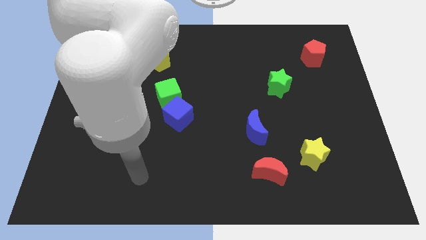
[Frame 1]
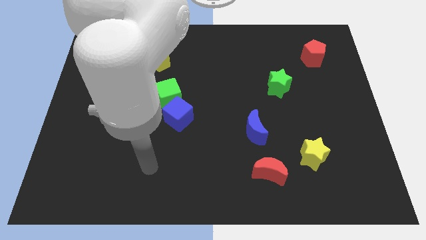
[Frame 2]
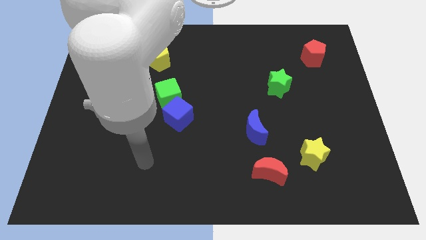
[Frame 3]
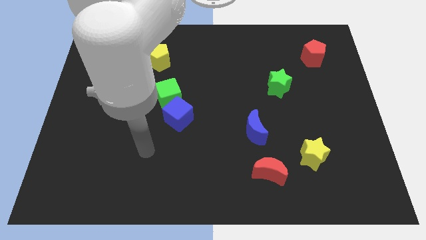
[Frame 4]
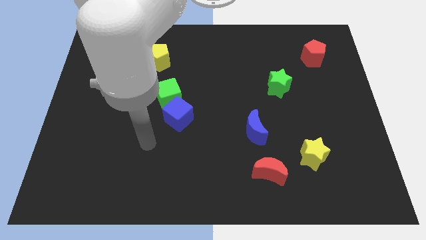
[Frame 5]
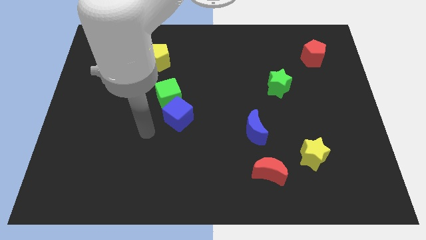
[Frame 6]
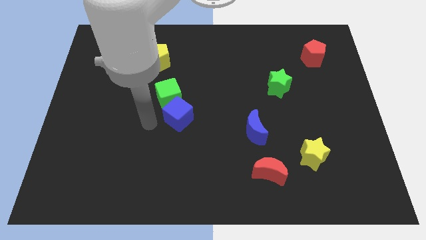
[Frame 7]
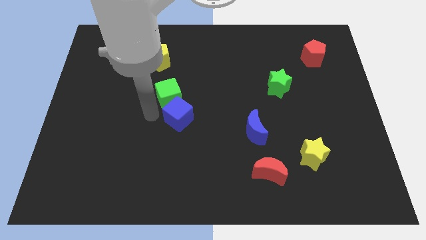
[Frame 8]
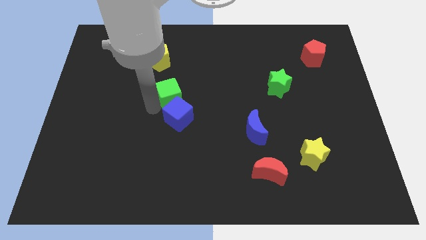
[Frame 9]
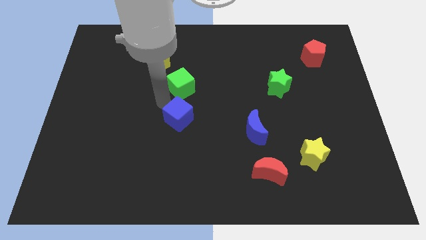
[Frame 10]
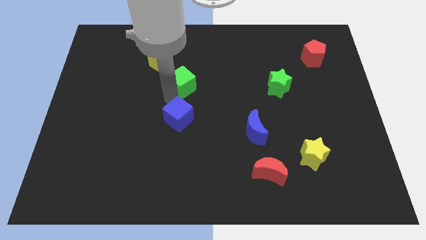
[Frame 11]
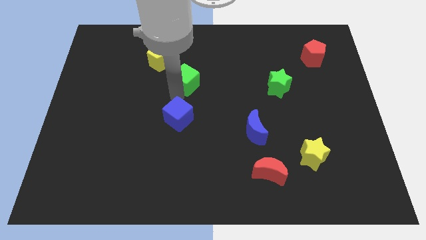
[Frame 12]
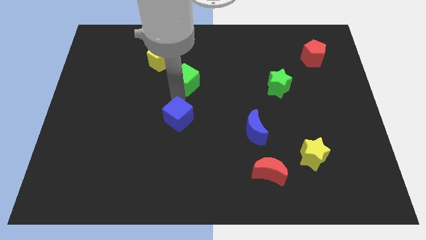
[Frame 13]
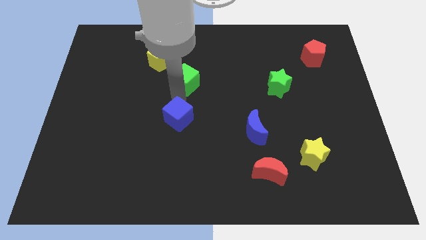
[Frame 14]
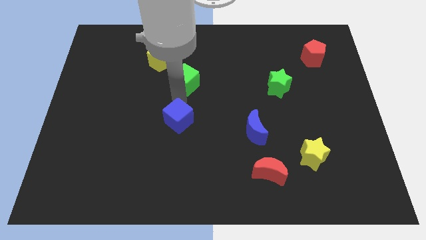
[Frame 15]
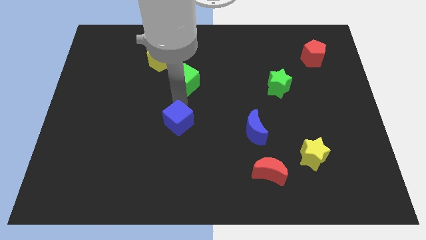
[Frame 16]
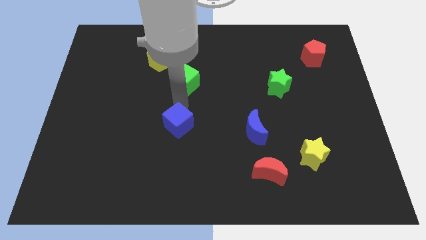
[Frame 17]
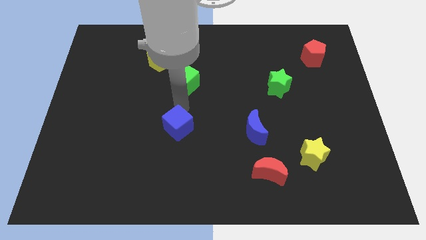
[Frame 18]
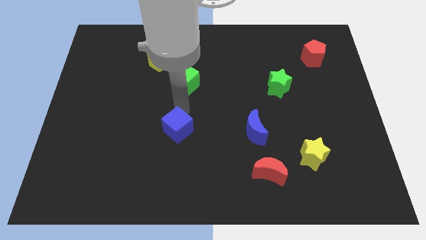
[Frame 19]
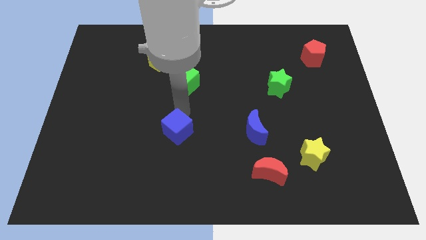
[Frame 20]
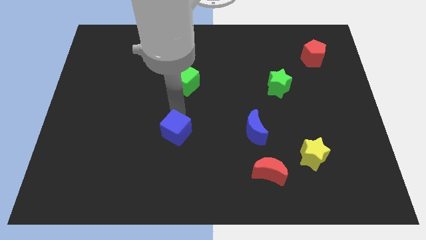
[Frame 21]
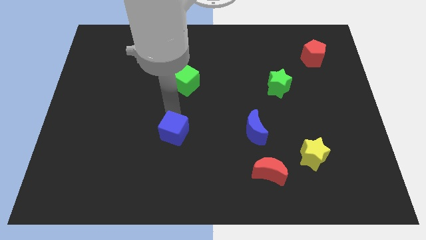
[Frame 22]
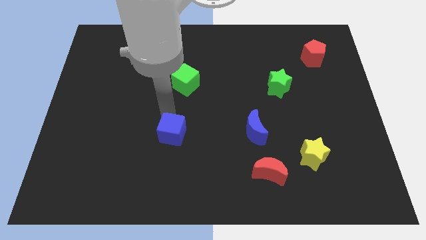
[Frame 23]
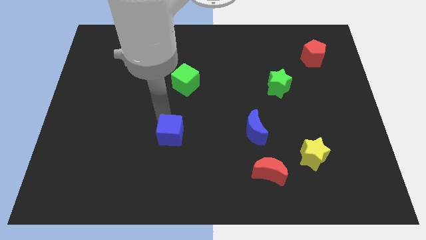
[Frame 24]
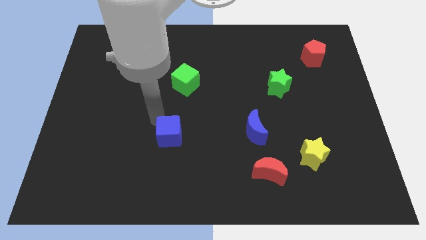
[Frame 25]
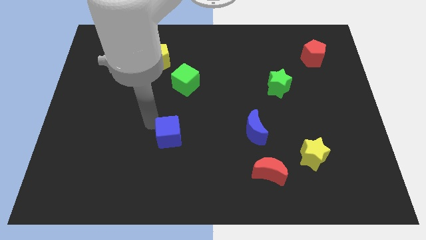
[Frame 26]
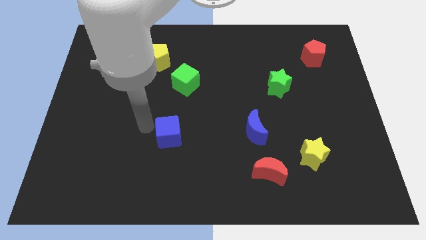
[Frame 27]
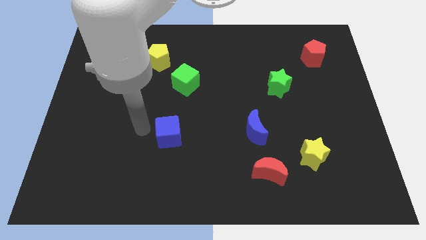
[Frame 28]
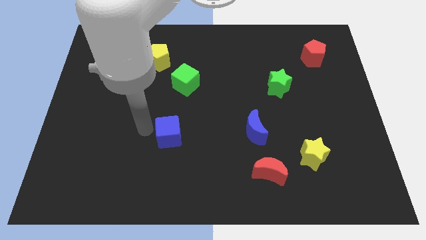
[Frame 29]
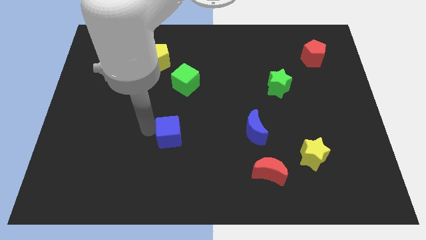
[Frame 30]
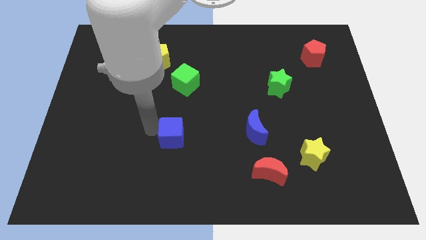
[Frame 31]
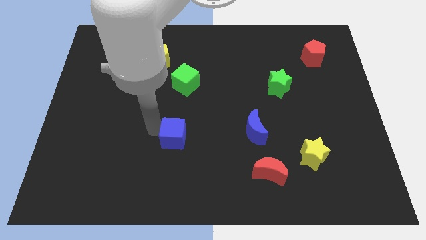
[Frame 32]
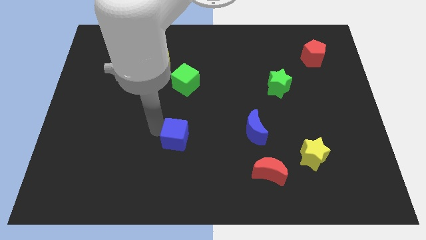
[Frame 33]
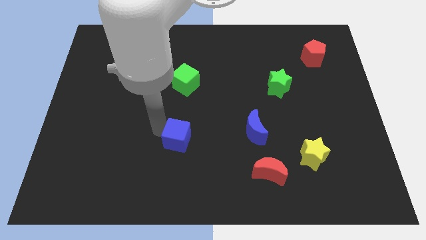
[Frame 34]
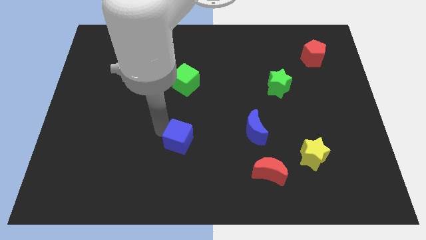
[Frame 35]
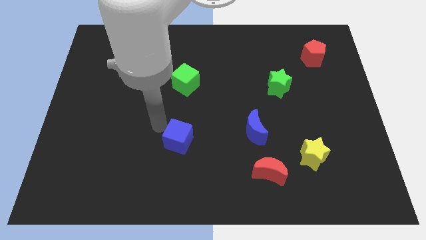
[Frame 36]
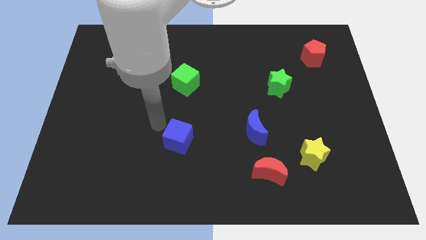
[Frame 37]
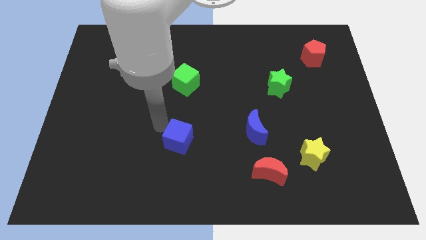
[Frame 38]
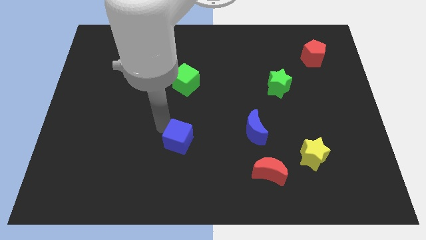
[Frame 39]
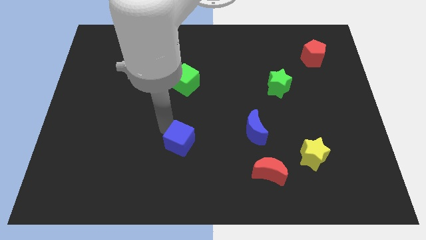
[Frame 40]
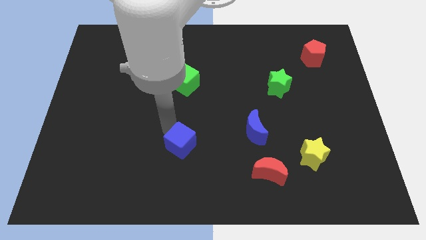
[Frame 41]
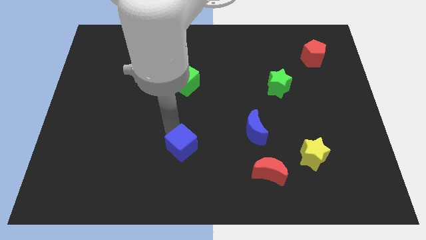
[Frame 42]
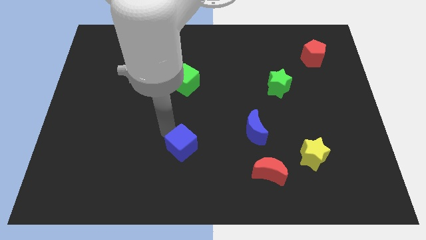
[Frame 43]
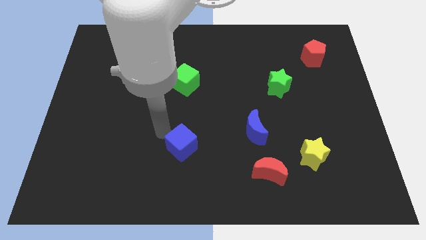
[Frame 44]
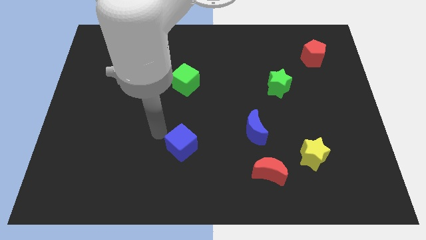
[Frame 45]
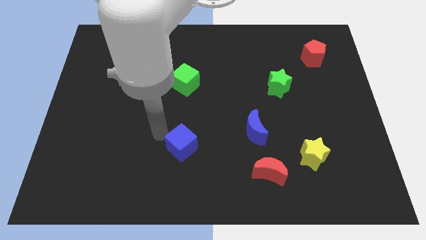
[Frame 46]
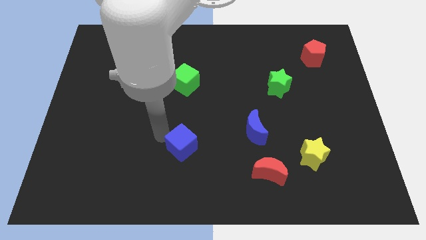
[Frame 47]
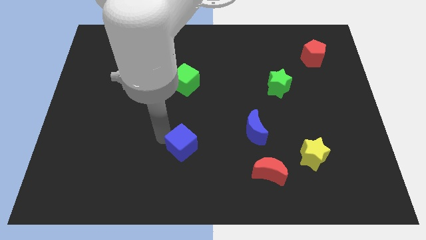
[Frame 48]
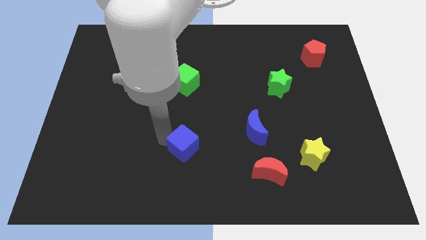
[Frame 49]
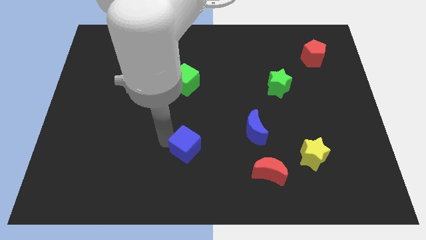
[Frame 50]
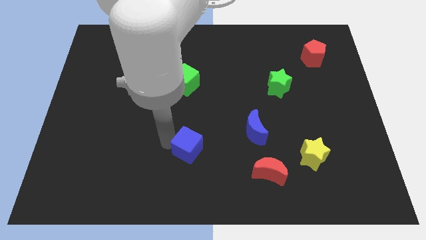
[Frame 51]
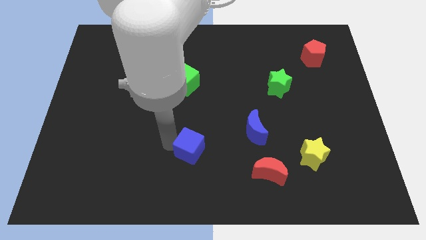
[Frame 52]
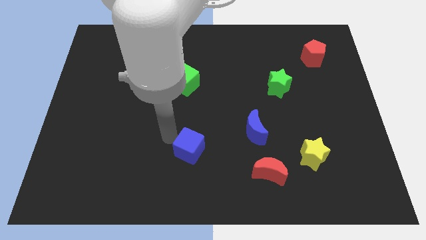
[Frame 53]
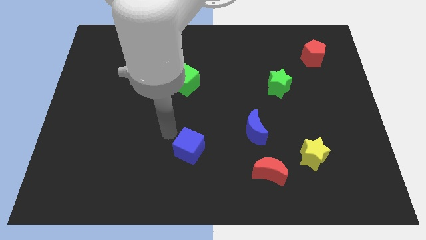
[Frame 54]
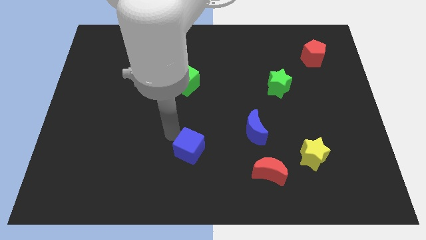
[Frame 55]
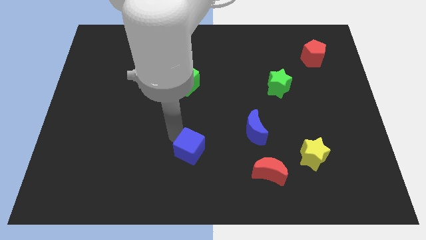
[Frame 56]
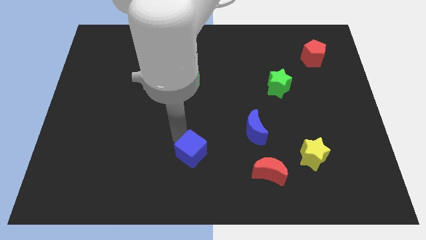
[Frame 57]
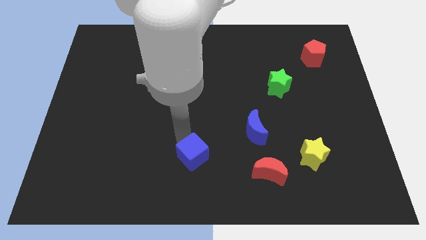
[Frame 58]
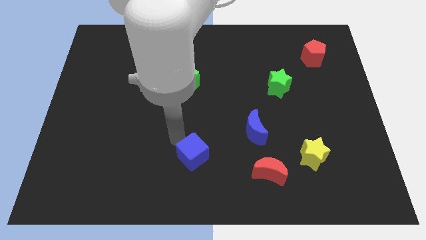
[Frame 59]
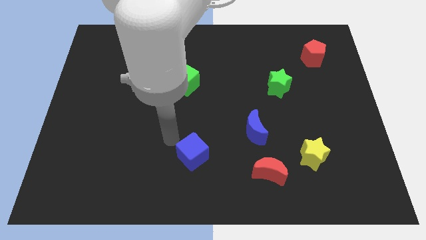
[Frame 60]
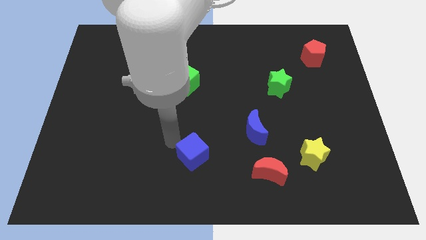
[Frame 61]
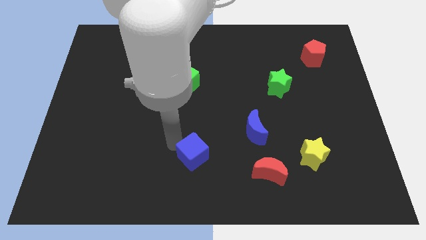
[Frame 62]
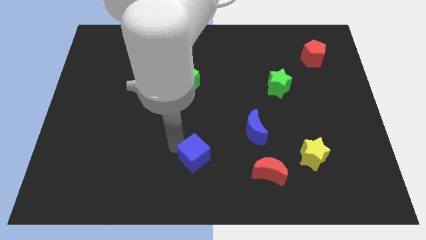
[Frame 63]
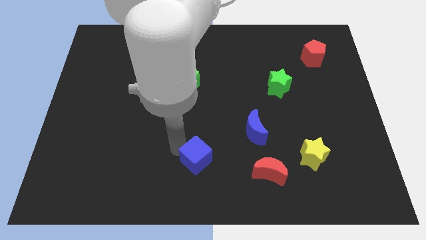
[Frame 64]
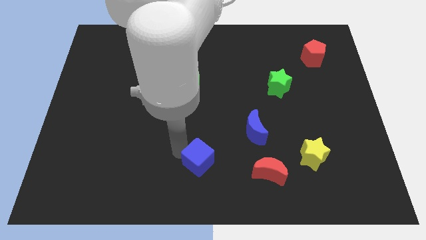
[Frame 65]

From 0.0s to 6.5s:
push the blue cube just left of the red moon
